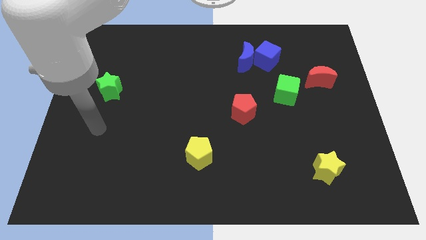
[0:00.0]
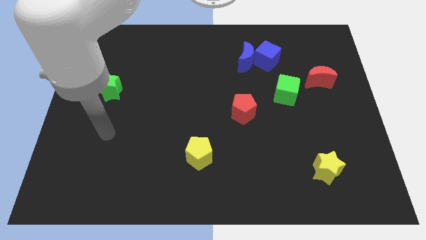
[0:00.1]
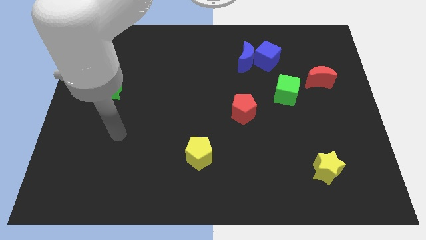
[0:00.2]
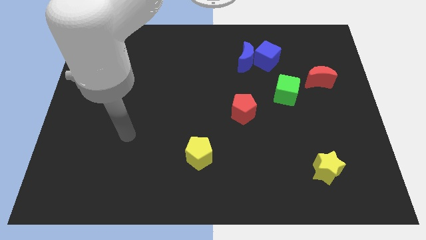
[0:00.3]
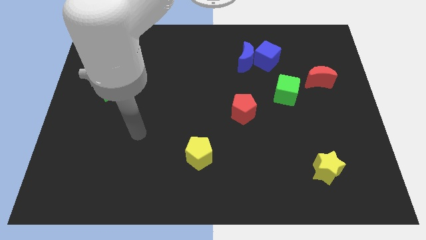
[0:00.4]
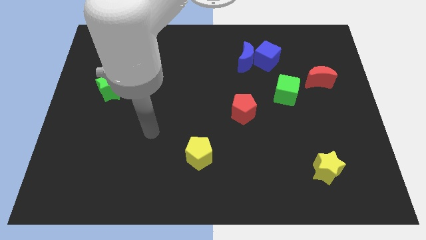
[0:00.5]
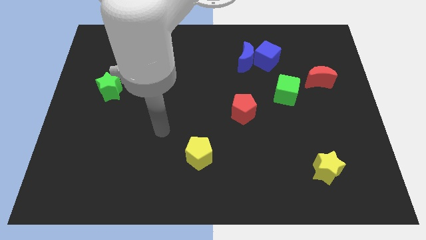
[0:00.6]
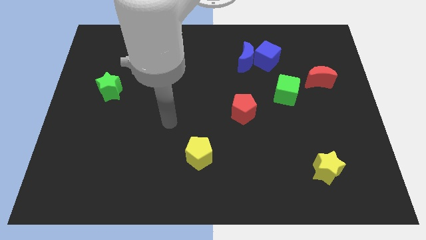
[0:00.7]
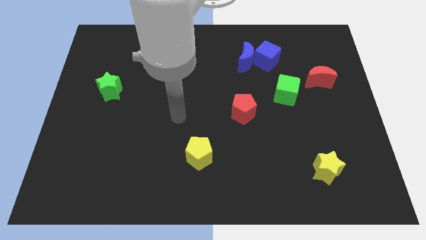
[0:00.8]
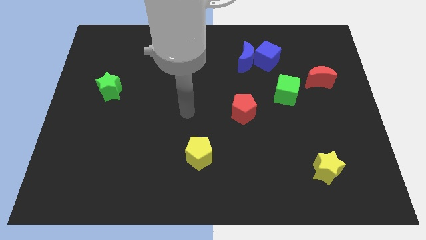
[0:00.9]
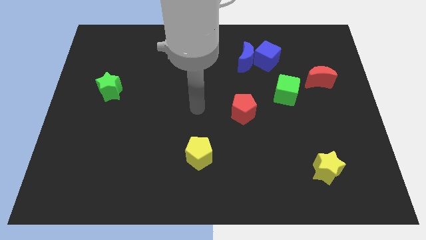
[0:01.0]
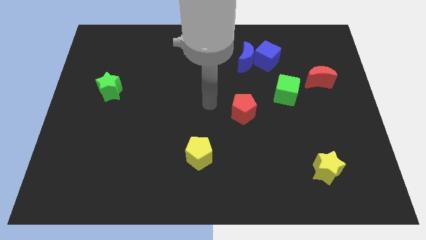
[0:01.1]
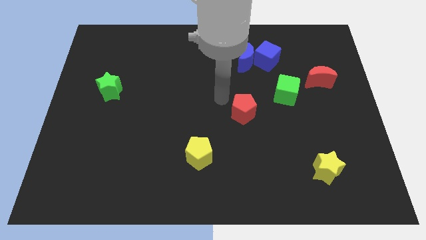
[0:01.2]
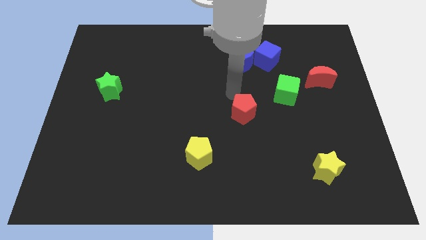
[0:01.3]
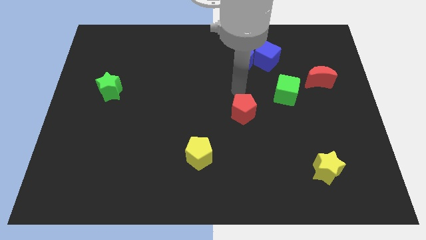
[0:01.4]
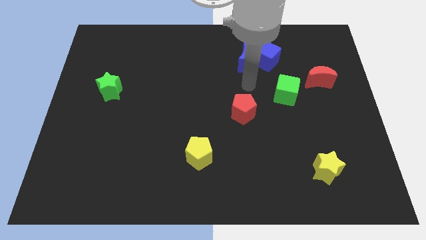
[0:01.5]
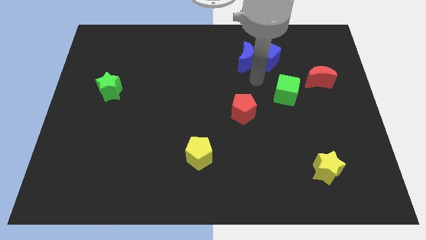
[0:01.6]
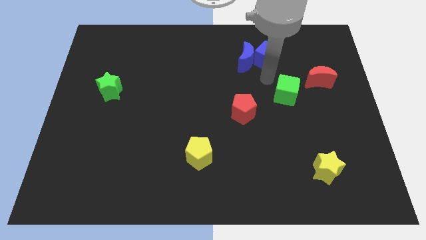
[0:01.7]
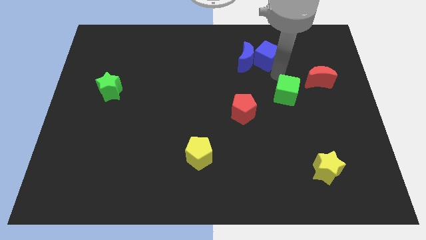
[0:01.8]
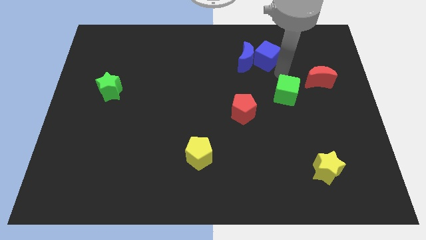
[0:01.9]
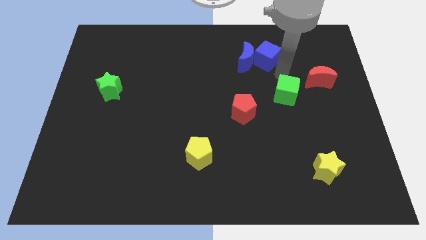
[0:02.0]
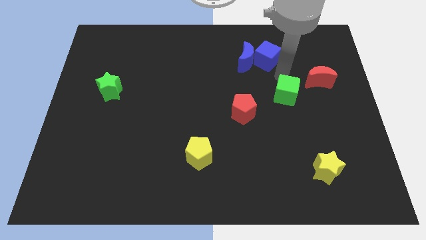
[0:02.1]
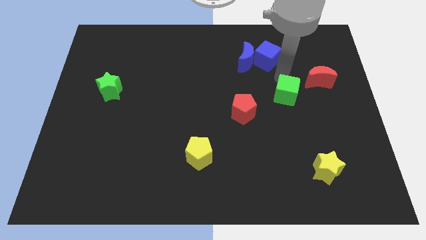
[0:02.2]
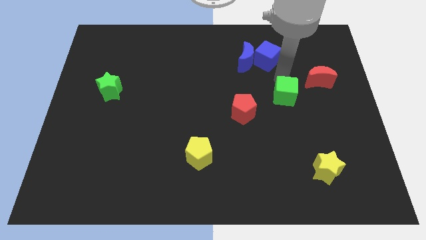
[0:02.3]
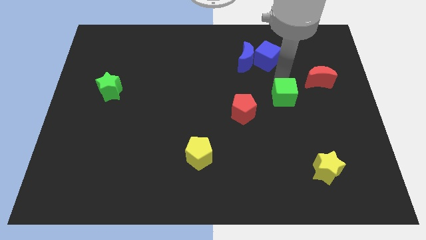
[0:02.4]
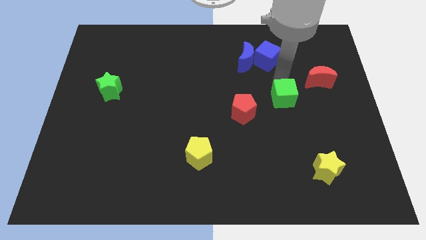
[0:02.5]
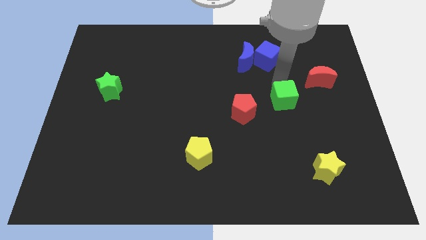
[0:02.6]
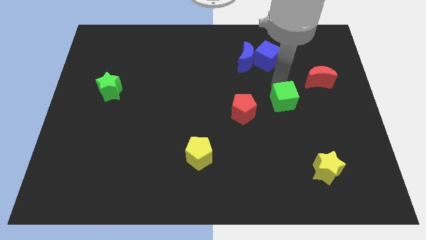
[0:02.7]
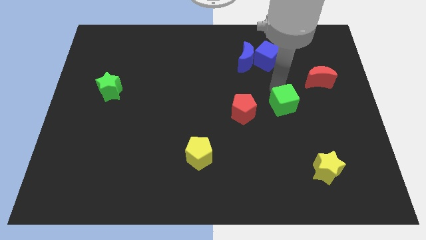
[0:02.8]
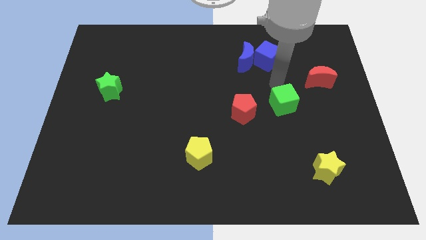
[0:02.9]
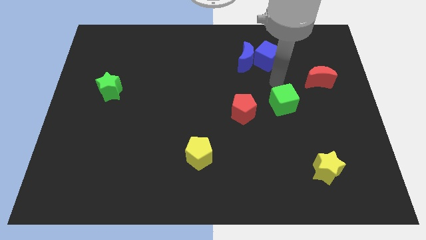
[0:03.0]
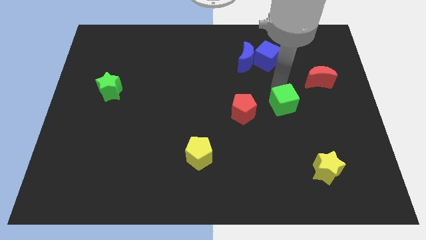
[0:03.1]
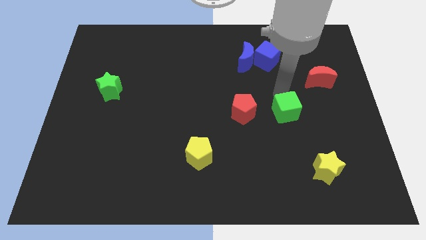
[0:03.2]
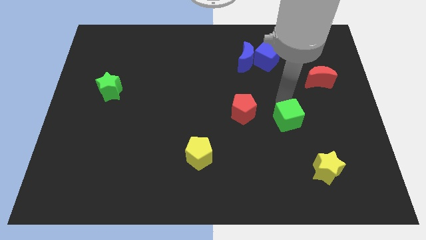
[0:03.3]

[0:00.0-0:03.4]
push the green cube downwards a little bit

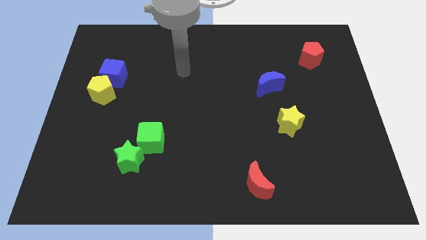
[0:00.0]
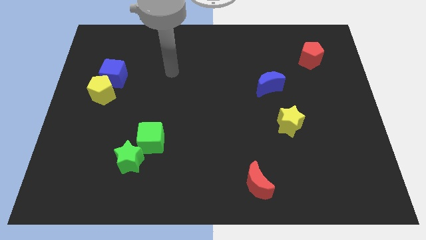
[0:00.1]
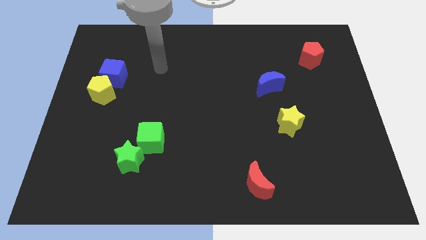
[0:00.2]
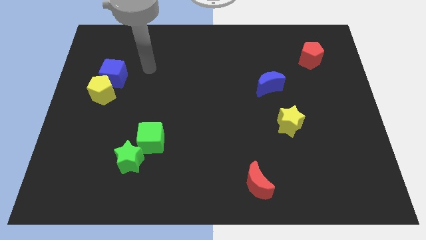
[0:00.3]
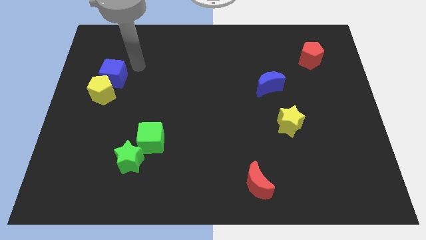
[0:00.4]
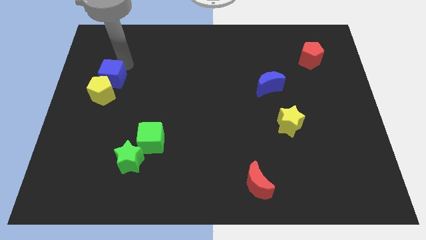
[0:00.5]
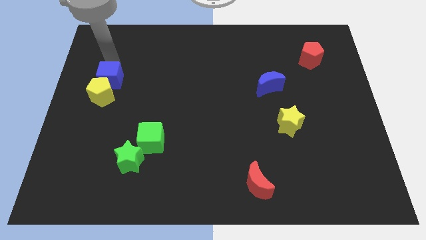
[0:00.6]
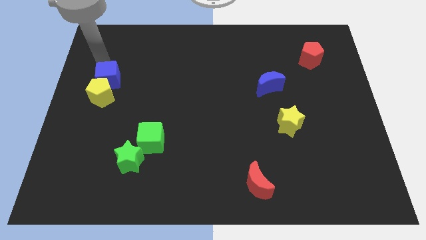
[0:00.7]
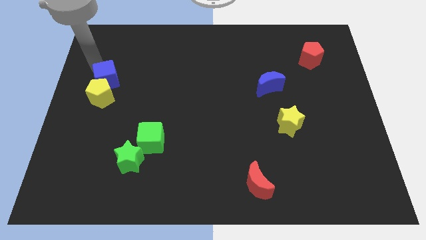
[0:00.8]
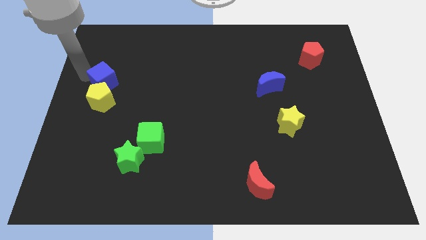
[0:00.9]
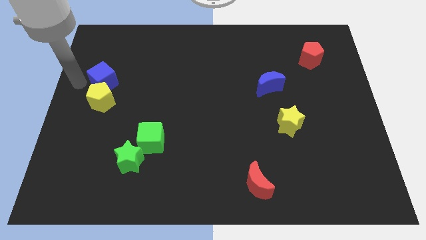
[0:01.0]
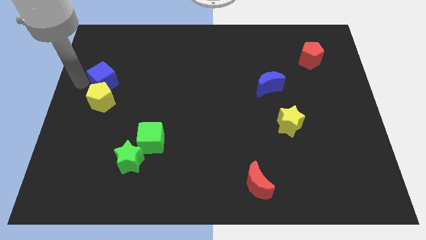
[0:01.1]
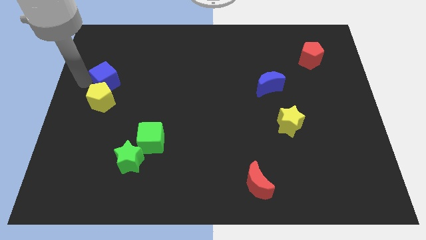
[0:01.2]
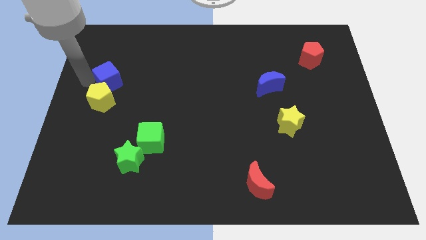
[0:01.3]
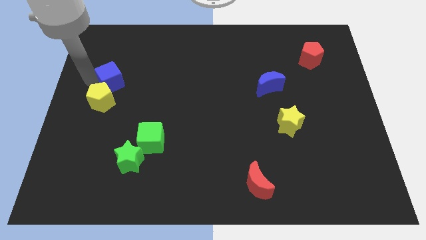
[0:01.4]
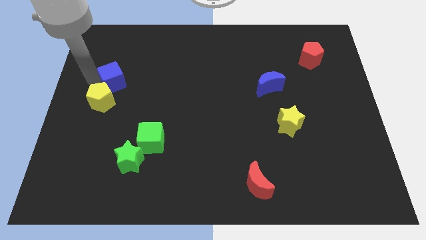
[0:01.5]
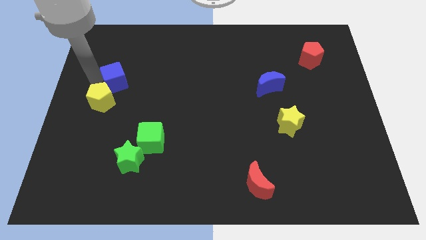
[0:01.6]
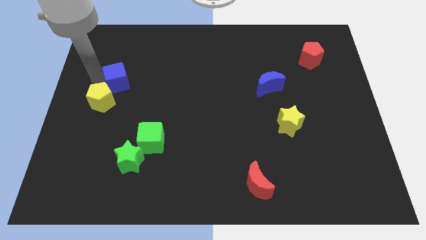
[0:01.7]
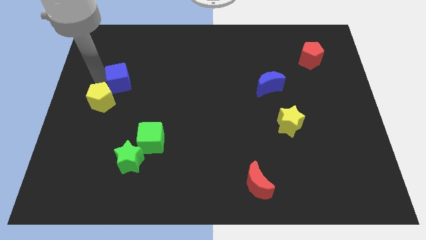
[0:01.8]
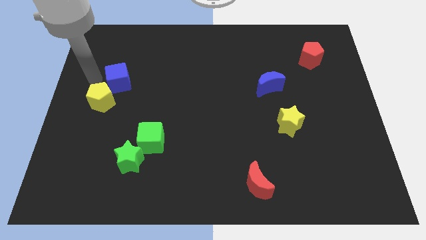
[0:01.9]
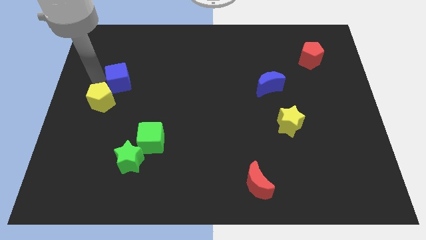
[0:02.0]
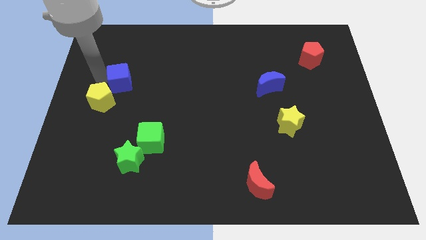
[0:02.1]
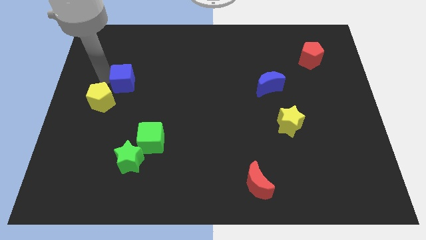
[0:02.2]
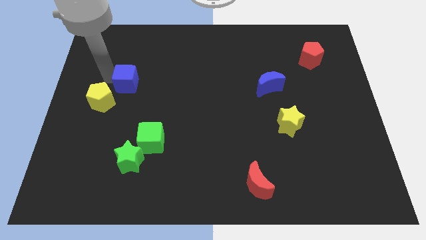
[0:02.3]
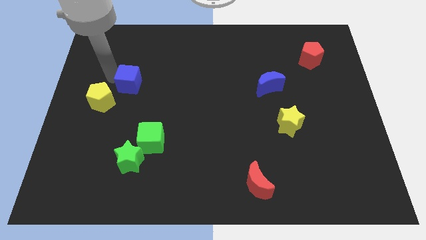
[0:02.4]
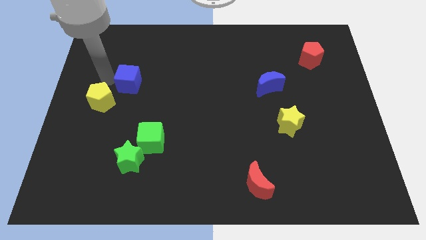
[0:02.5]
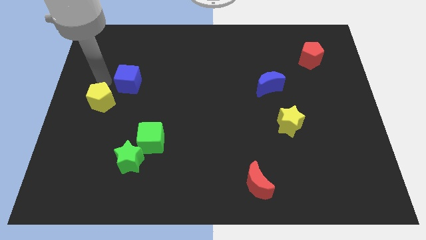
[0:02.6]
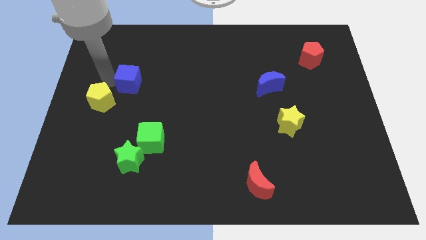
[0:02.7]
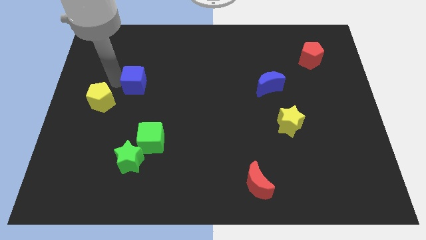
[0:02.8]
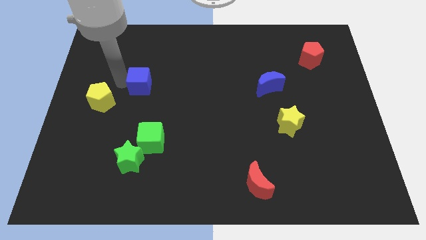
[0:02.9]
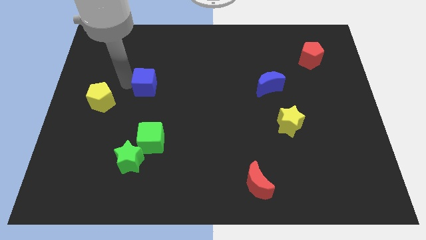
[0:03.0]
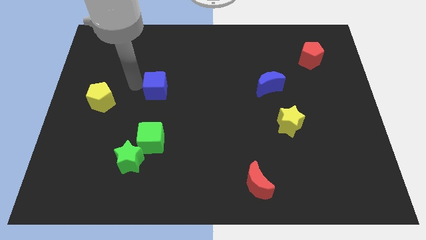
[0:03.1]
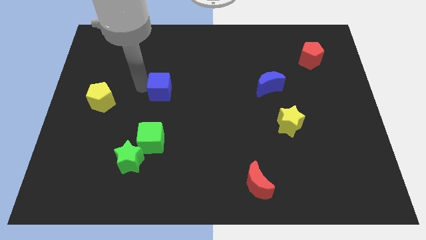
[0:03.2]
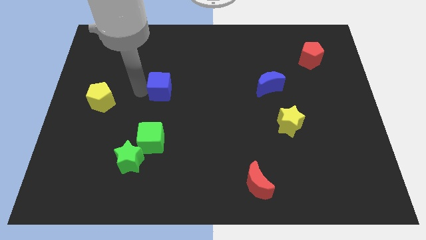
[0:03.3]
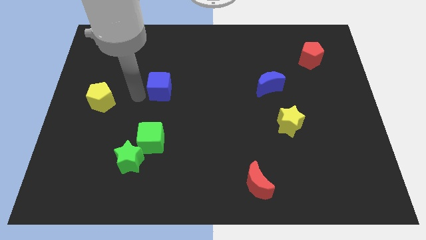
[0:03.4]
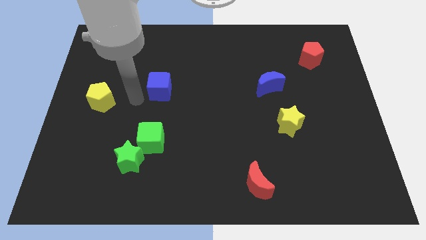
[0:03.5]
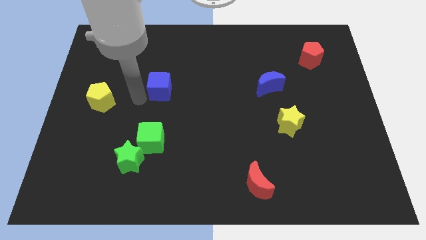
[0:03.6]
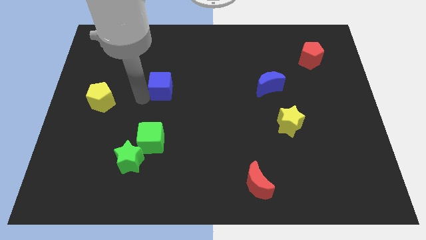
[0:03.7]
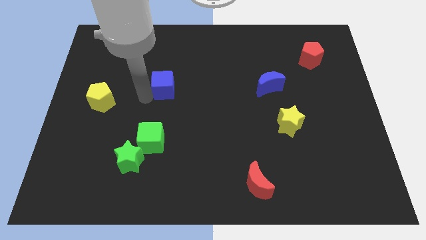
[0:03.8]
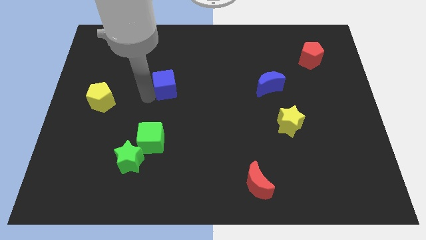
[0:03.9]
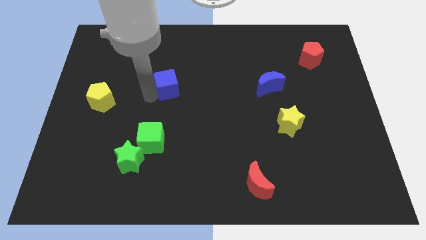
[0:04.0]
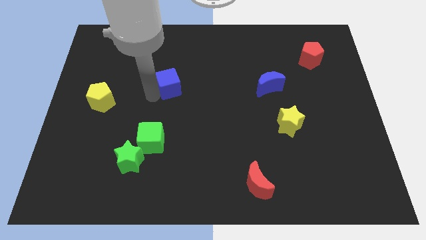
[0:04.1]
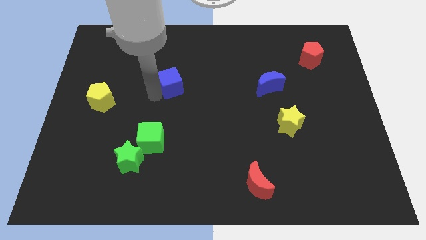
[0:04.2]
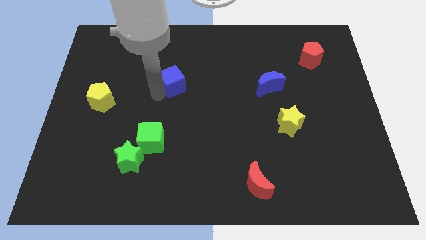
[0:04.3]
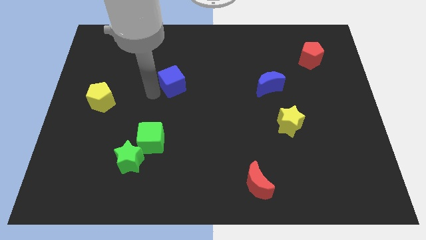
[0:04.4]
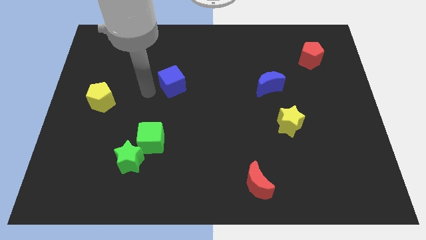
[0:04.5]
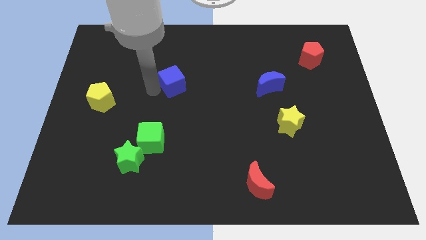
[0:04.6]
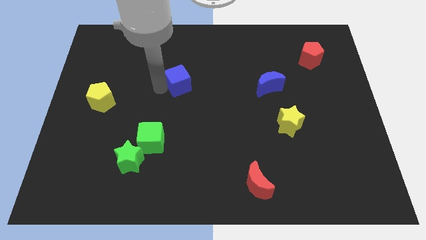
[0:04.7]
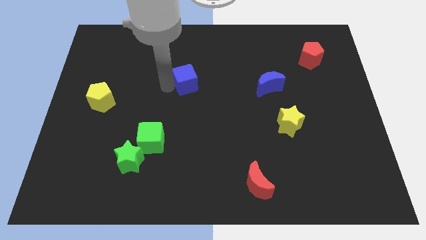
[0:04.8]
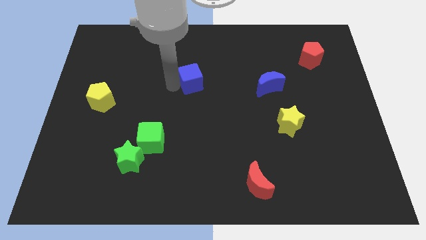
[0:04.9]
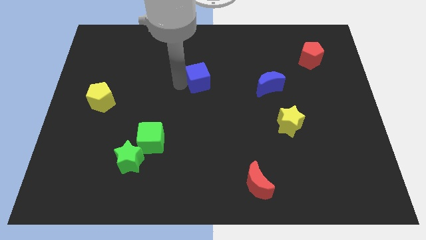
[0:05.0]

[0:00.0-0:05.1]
slide the blue cube right
